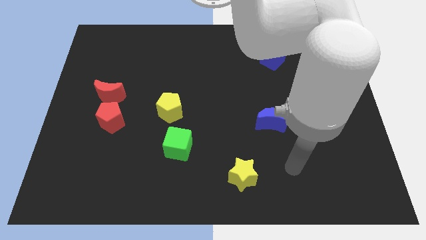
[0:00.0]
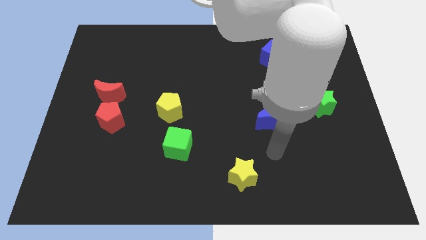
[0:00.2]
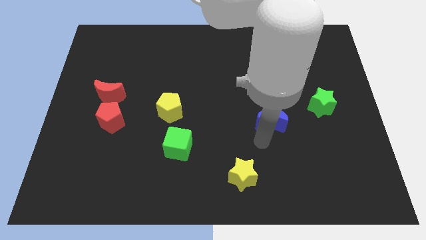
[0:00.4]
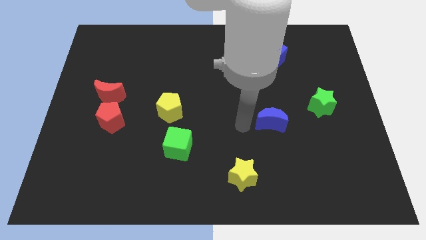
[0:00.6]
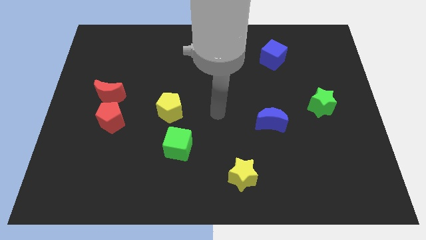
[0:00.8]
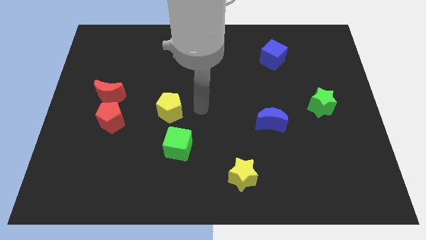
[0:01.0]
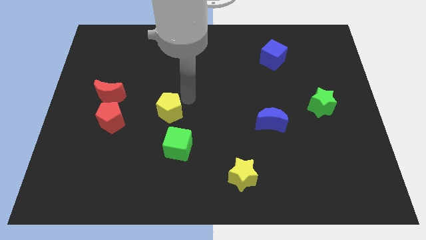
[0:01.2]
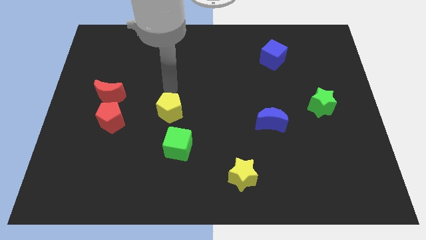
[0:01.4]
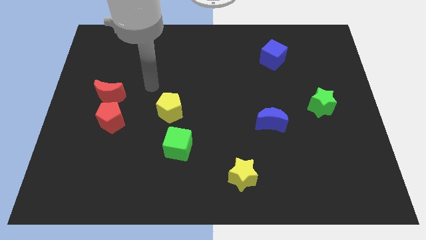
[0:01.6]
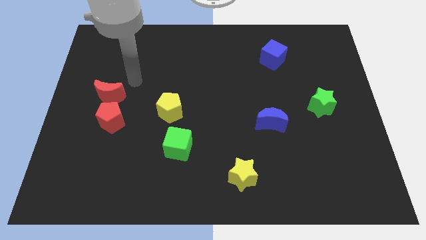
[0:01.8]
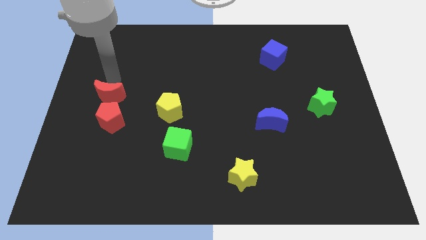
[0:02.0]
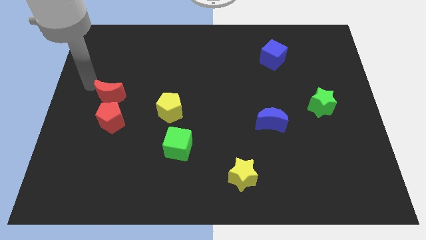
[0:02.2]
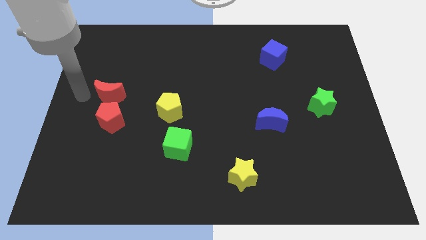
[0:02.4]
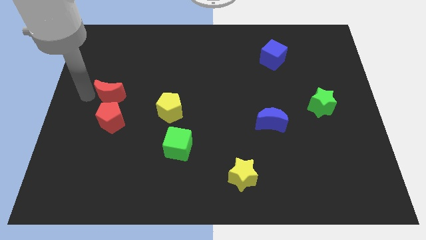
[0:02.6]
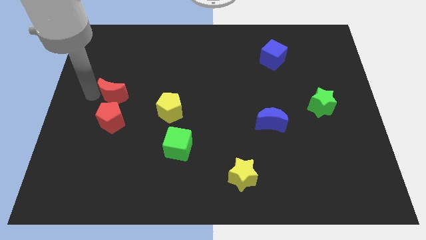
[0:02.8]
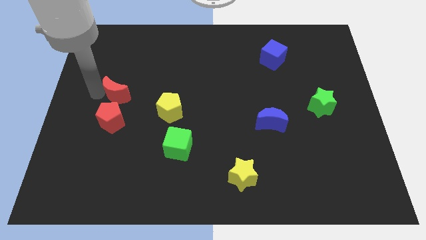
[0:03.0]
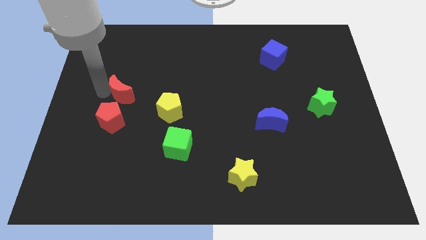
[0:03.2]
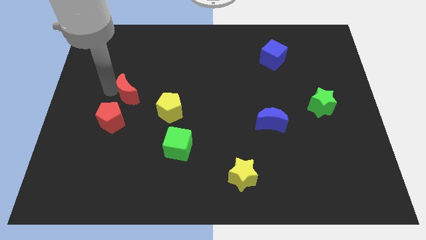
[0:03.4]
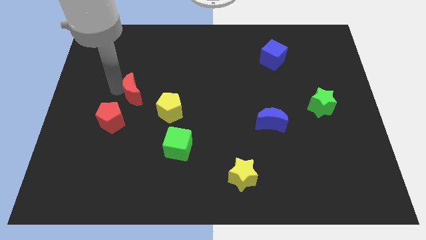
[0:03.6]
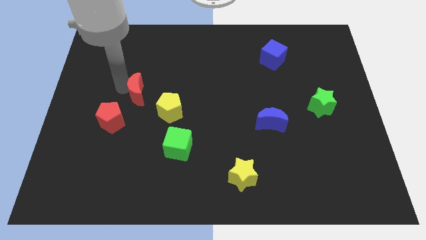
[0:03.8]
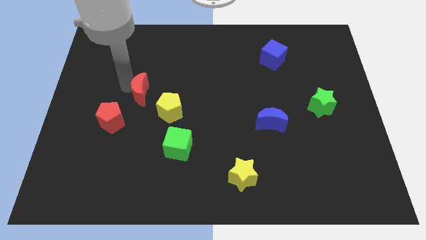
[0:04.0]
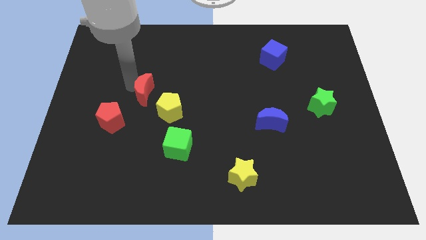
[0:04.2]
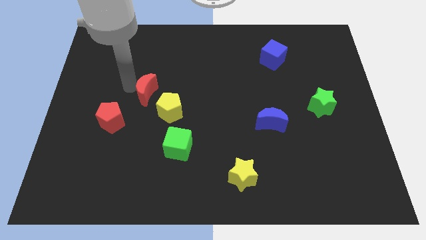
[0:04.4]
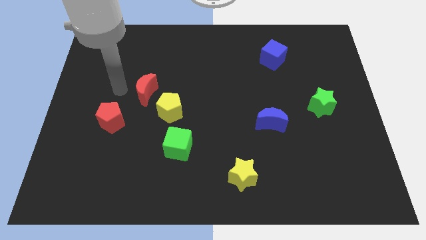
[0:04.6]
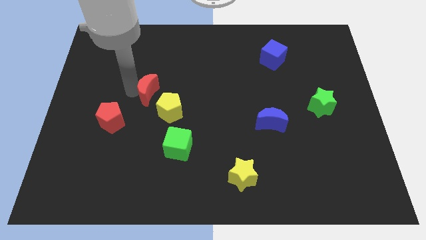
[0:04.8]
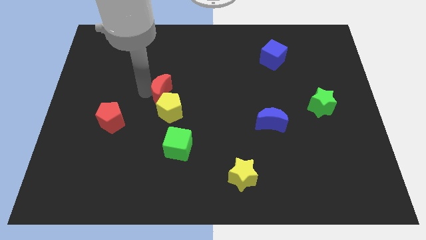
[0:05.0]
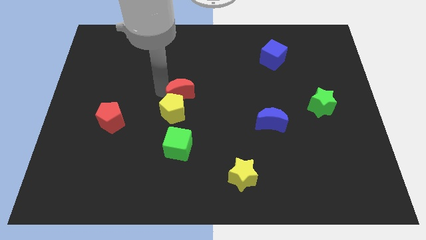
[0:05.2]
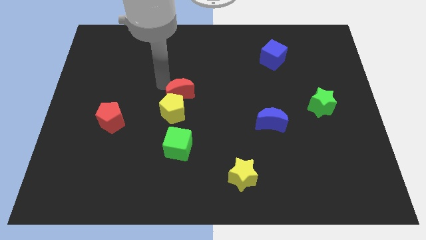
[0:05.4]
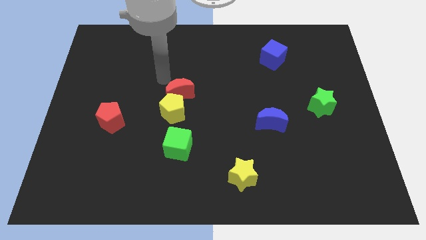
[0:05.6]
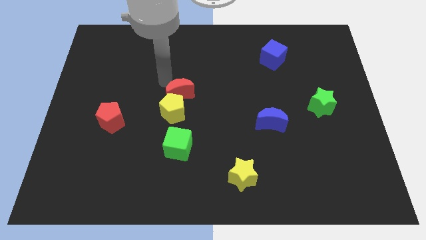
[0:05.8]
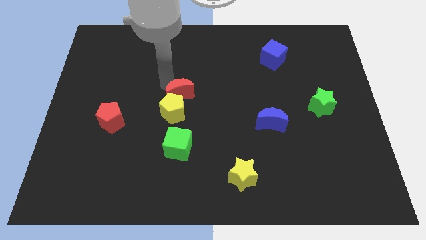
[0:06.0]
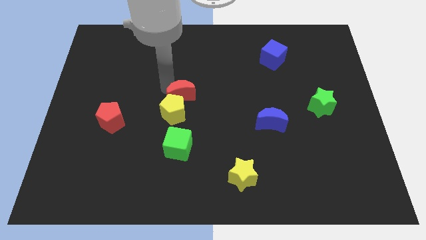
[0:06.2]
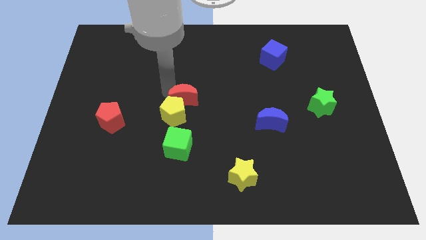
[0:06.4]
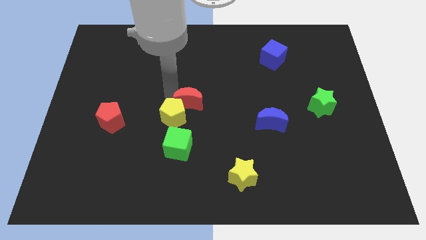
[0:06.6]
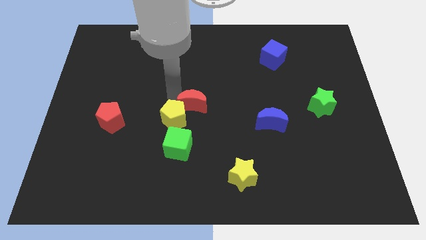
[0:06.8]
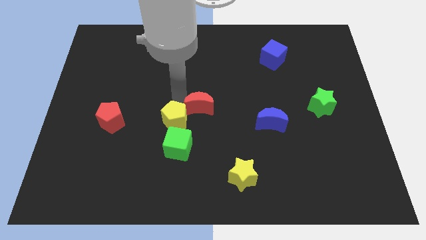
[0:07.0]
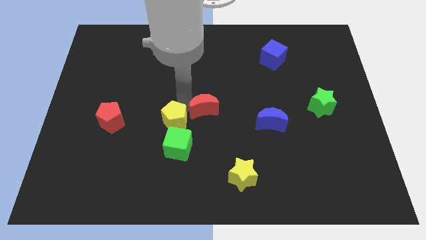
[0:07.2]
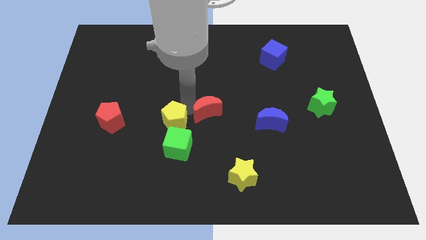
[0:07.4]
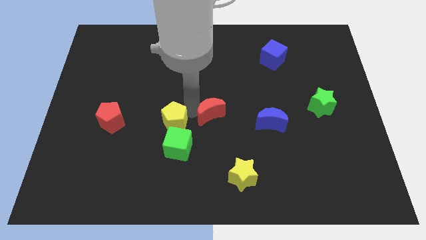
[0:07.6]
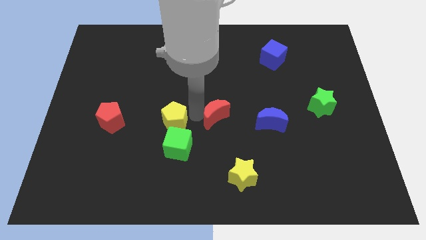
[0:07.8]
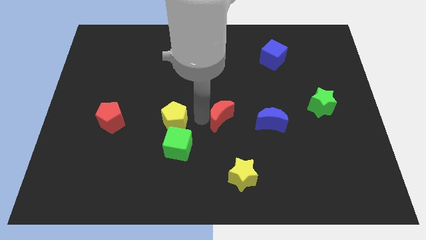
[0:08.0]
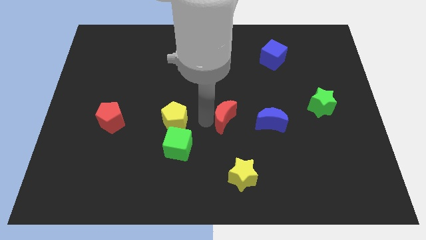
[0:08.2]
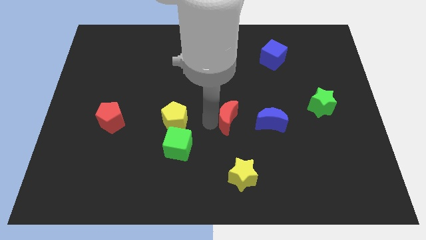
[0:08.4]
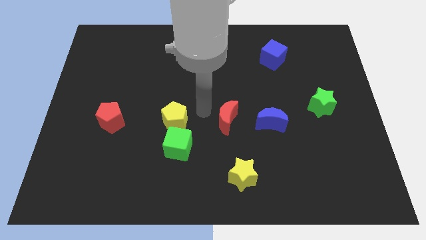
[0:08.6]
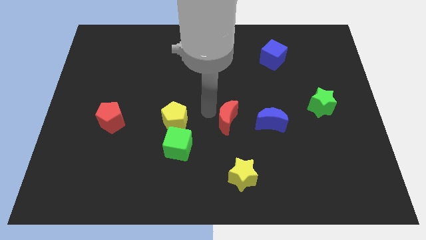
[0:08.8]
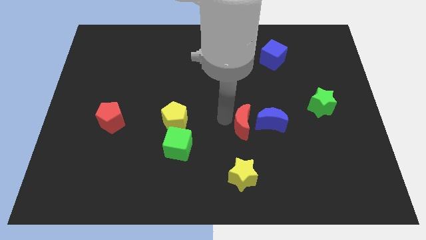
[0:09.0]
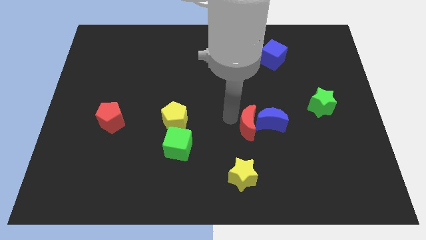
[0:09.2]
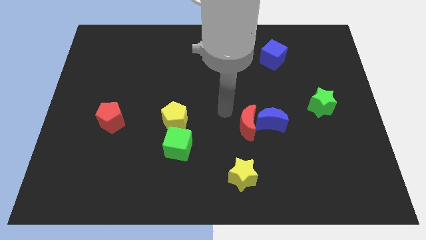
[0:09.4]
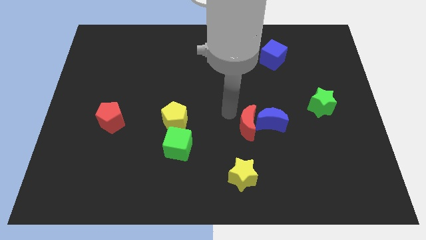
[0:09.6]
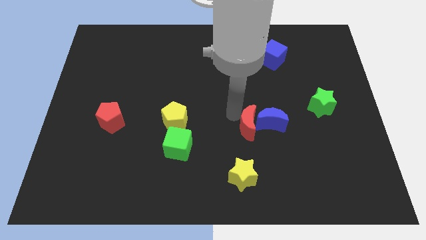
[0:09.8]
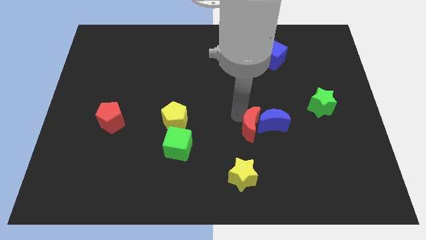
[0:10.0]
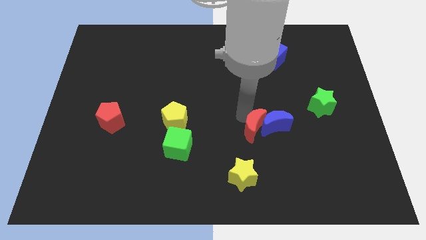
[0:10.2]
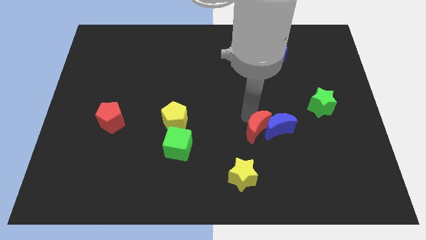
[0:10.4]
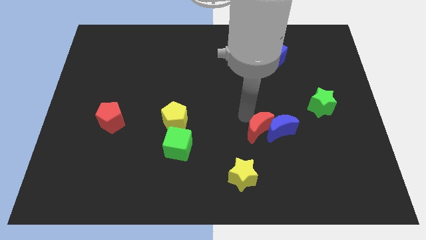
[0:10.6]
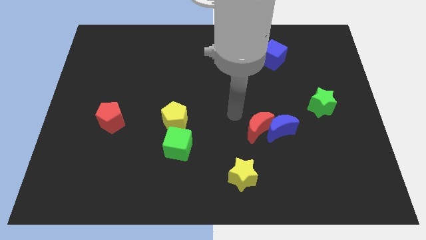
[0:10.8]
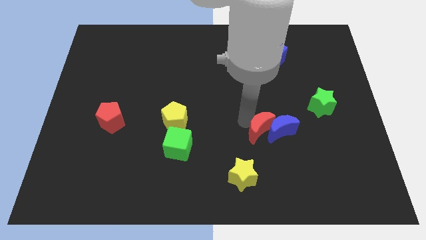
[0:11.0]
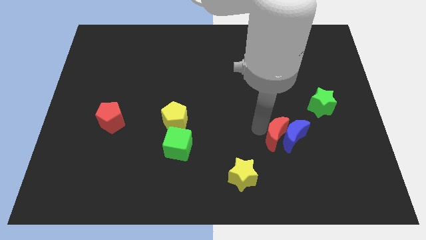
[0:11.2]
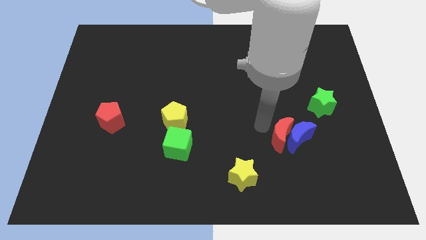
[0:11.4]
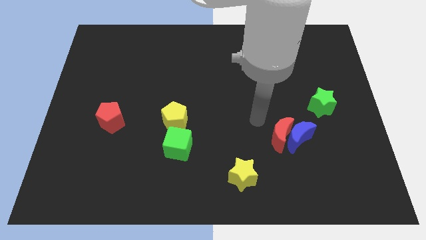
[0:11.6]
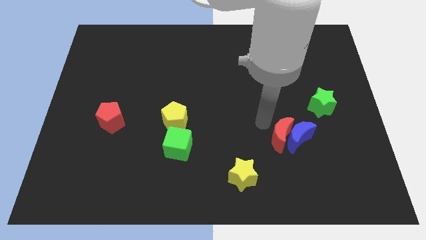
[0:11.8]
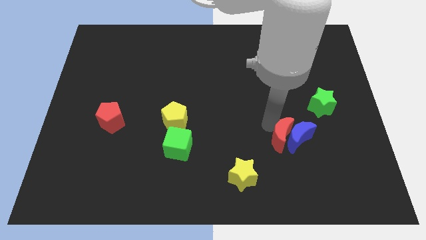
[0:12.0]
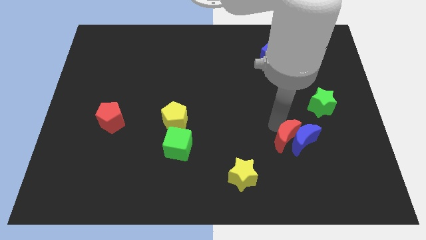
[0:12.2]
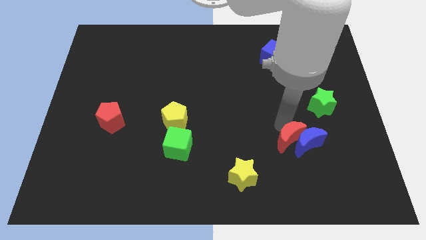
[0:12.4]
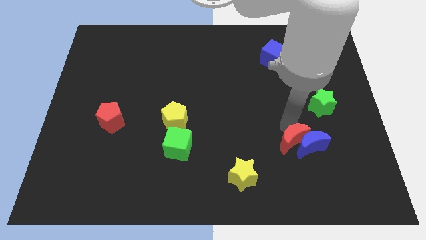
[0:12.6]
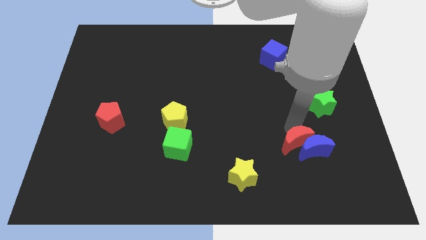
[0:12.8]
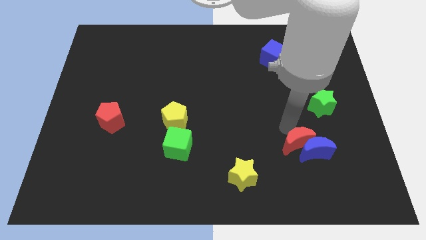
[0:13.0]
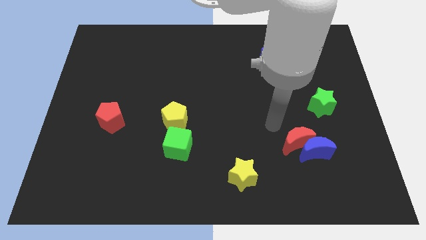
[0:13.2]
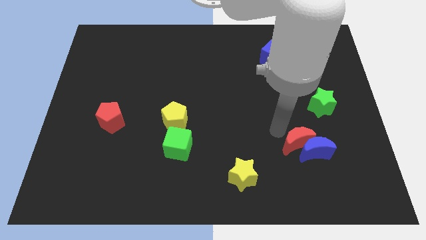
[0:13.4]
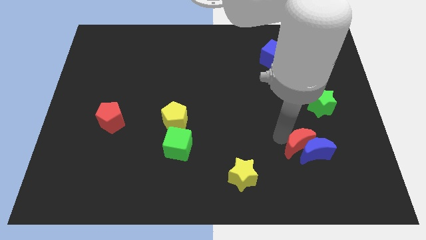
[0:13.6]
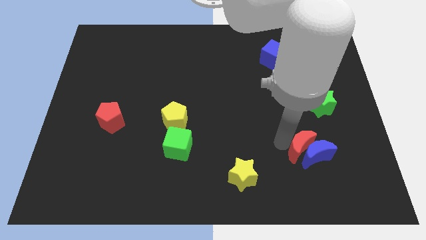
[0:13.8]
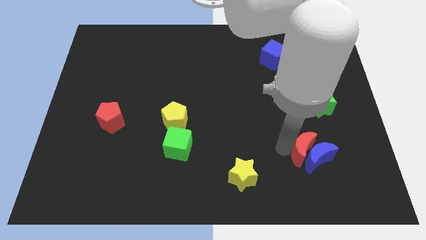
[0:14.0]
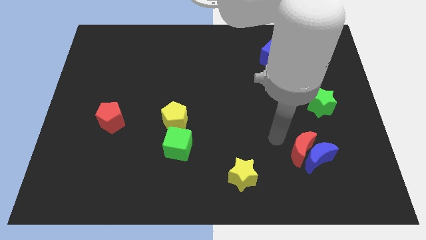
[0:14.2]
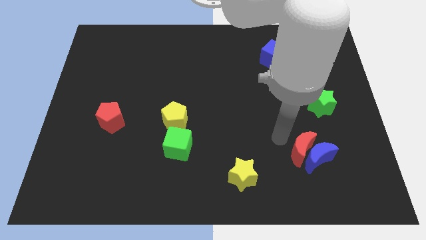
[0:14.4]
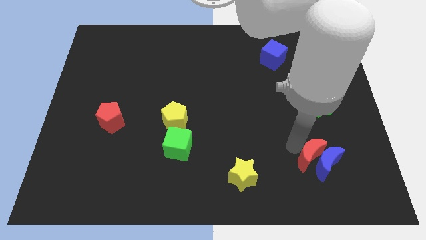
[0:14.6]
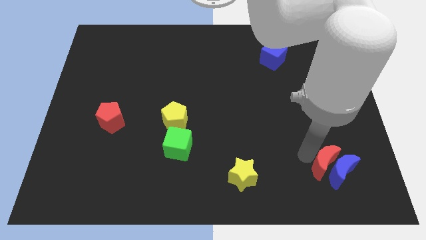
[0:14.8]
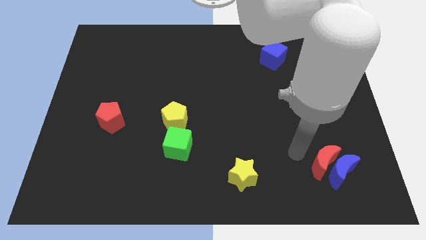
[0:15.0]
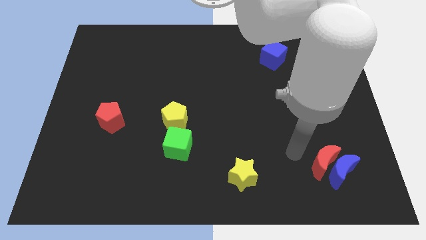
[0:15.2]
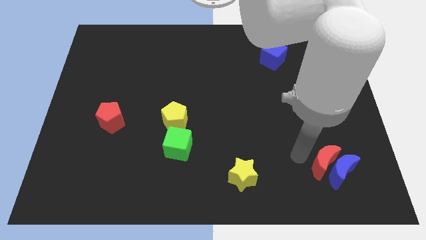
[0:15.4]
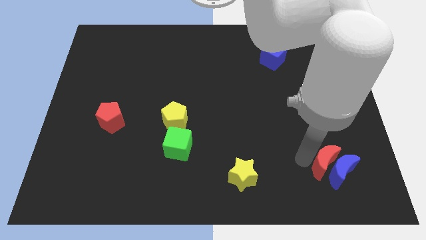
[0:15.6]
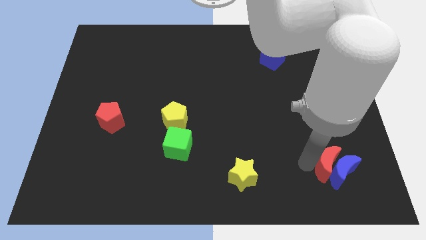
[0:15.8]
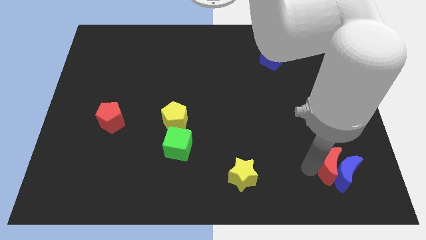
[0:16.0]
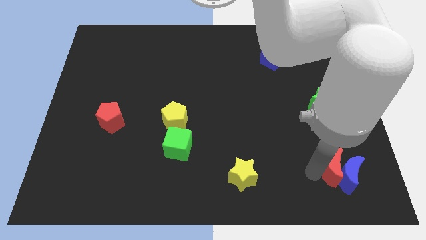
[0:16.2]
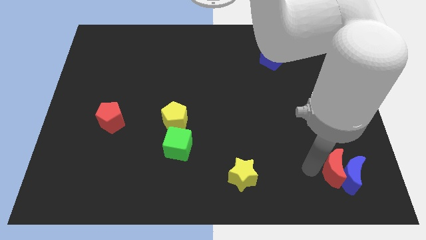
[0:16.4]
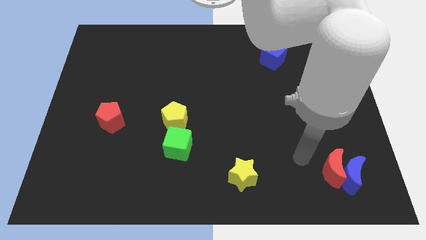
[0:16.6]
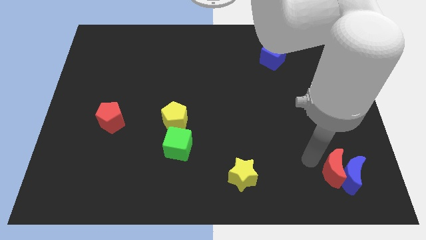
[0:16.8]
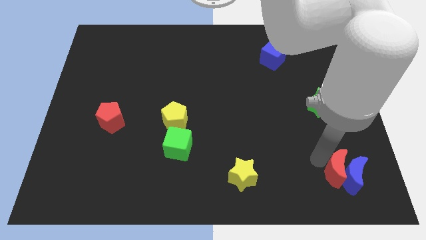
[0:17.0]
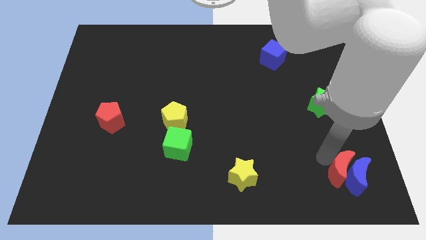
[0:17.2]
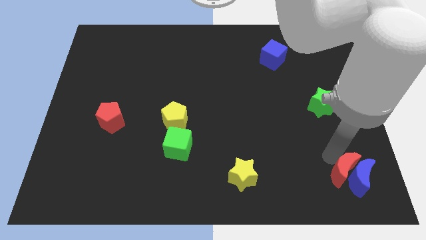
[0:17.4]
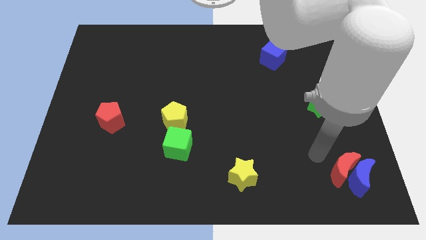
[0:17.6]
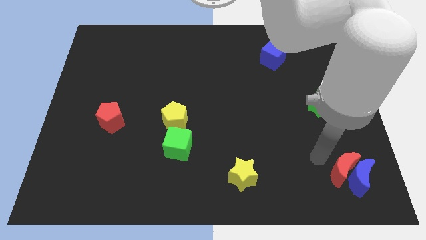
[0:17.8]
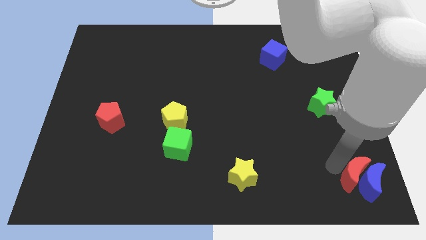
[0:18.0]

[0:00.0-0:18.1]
push the red moon to the lower right corner
